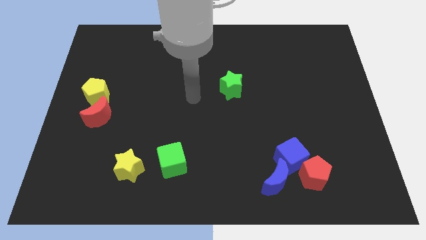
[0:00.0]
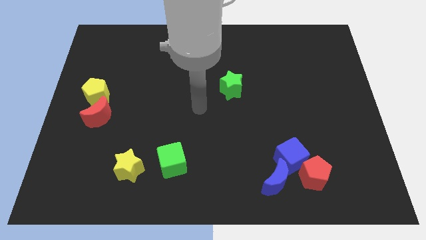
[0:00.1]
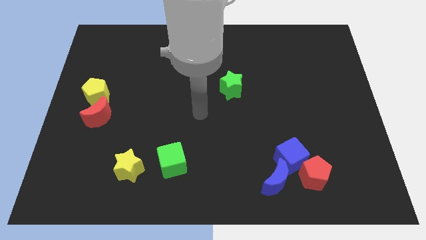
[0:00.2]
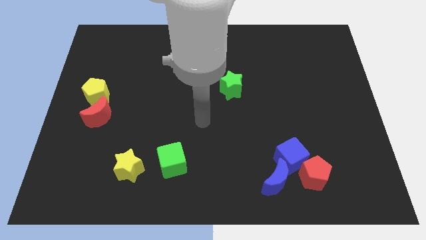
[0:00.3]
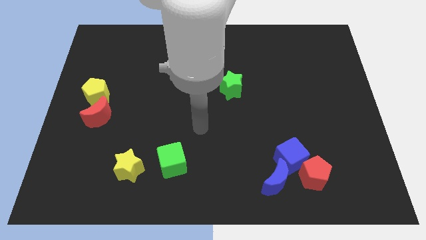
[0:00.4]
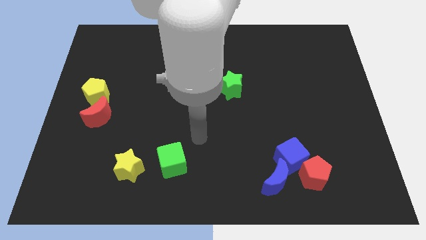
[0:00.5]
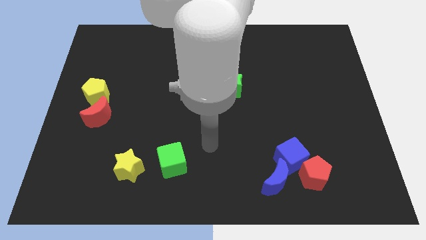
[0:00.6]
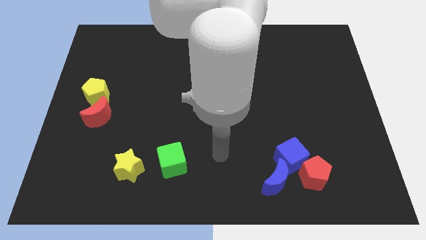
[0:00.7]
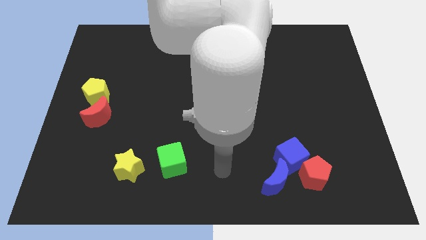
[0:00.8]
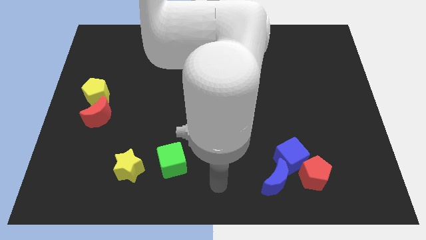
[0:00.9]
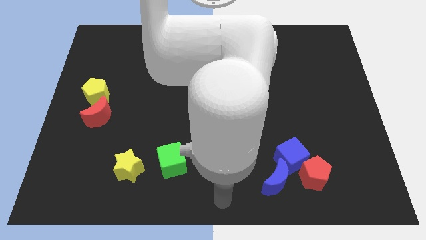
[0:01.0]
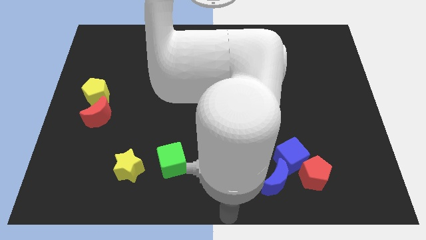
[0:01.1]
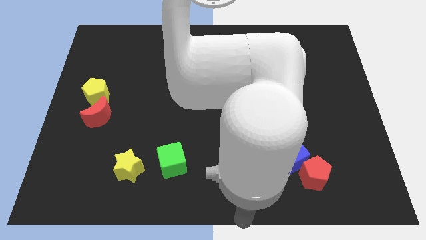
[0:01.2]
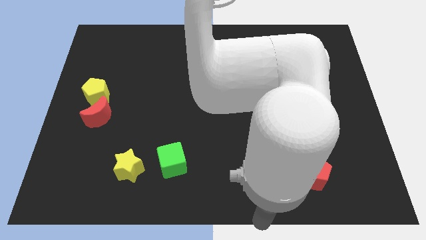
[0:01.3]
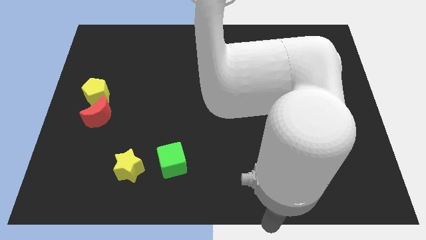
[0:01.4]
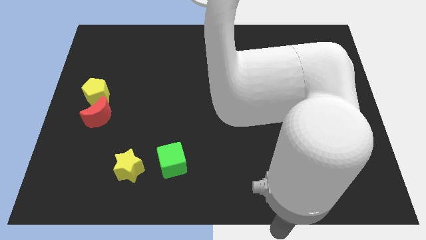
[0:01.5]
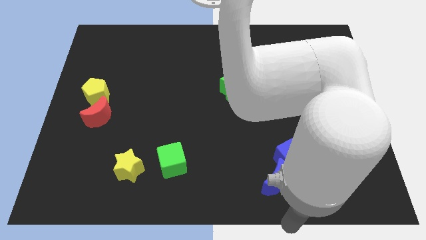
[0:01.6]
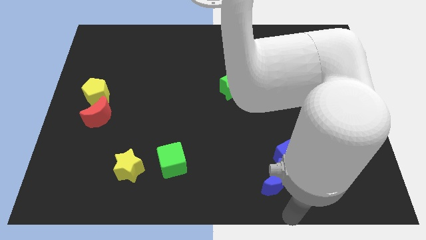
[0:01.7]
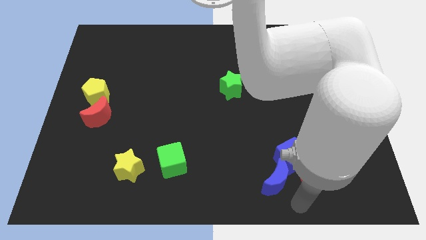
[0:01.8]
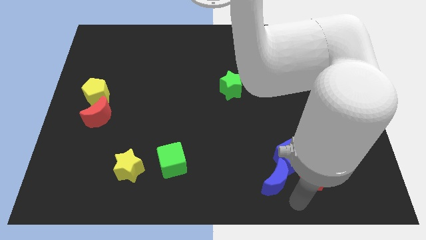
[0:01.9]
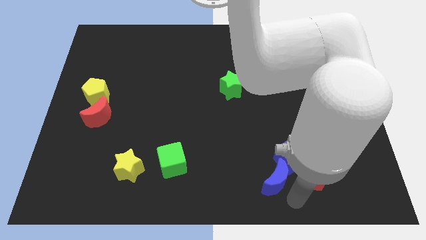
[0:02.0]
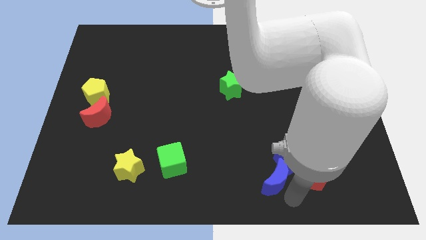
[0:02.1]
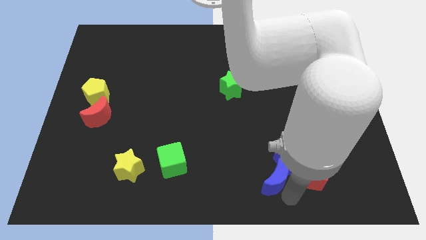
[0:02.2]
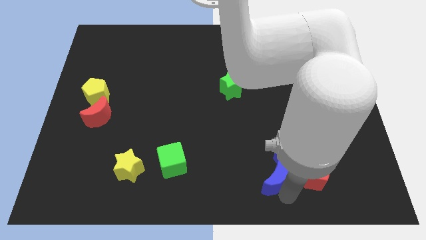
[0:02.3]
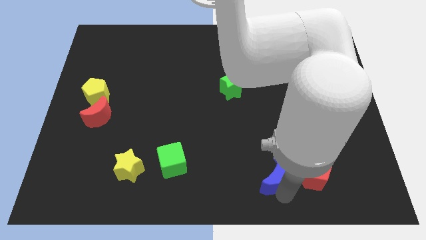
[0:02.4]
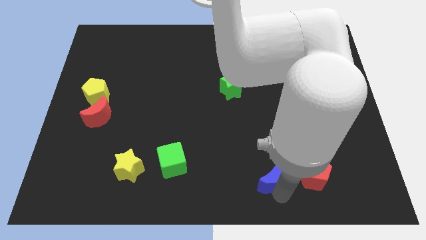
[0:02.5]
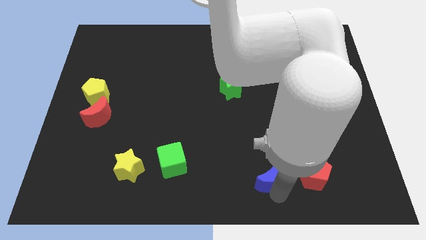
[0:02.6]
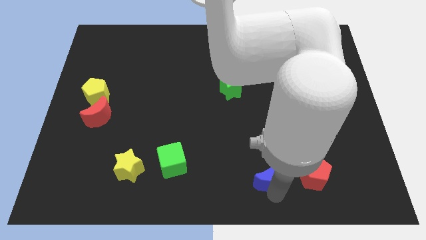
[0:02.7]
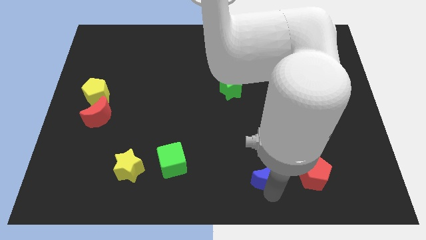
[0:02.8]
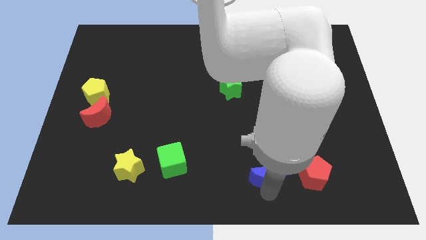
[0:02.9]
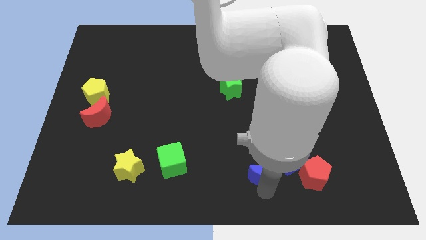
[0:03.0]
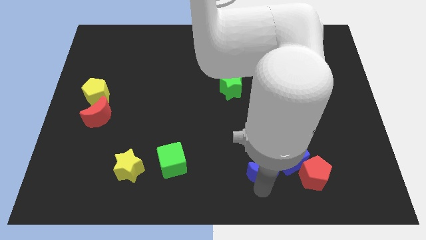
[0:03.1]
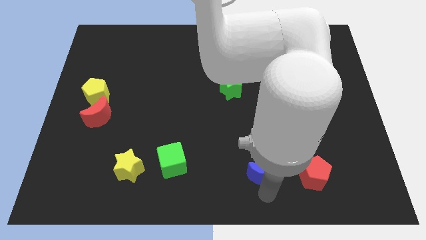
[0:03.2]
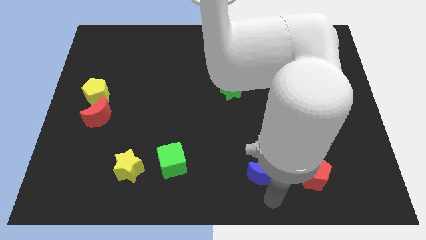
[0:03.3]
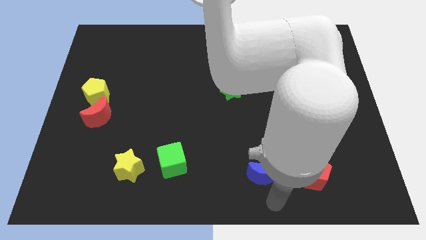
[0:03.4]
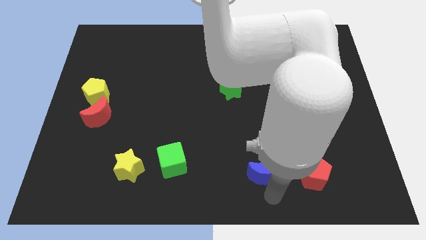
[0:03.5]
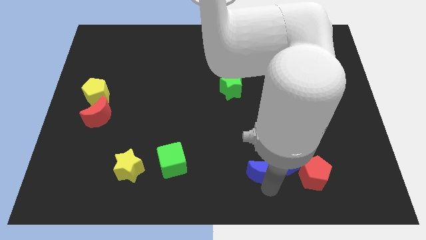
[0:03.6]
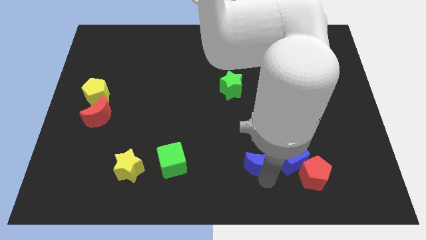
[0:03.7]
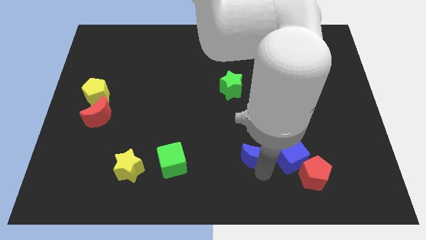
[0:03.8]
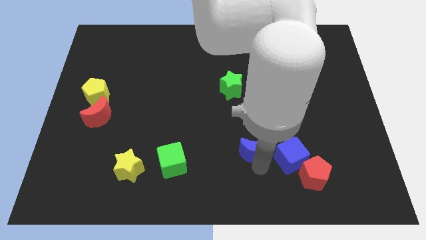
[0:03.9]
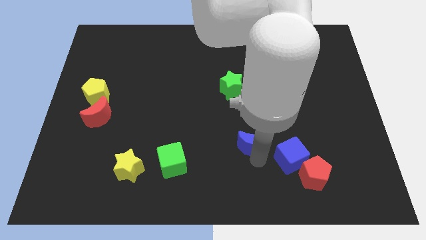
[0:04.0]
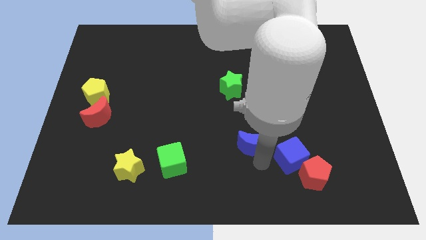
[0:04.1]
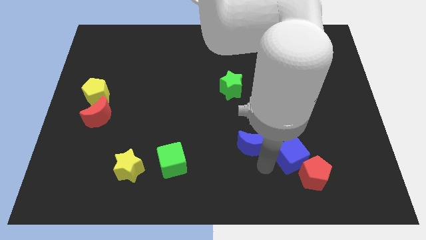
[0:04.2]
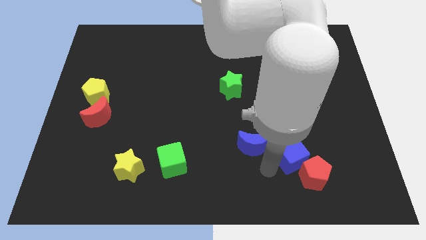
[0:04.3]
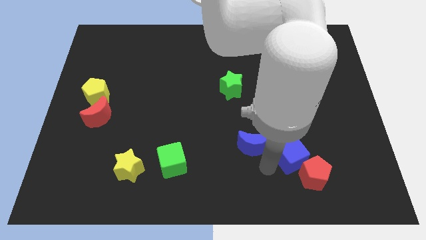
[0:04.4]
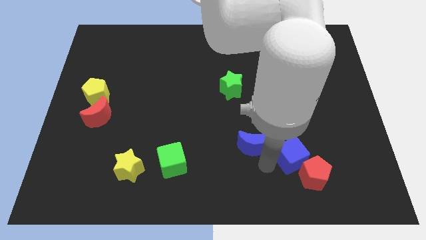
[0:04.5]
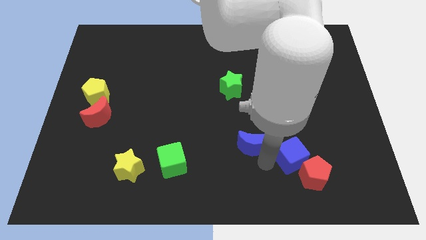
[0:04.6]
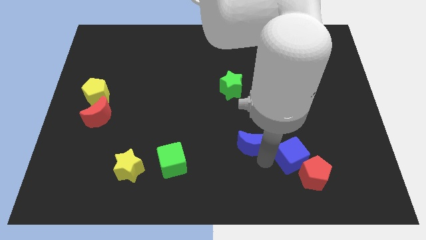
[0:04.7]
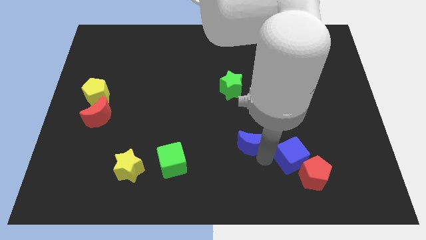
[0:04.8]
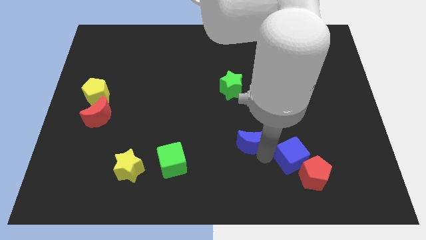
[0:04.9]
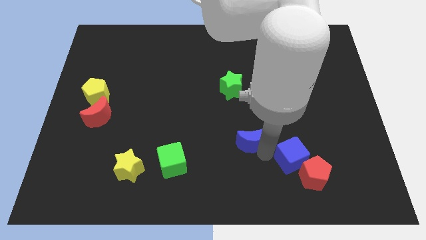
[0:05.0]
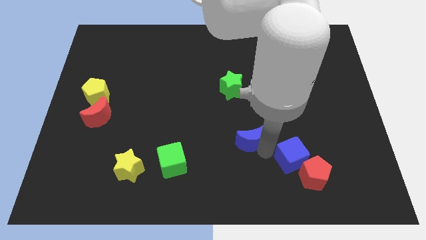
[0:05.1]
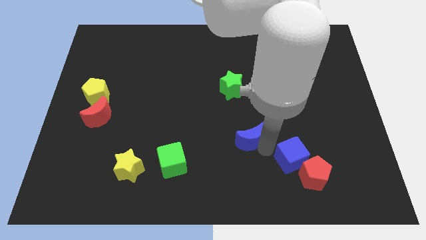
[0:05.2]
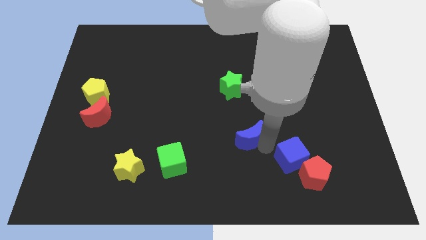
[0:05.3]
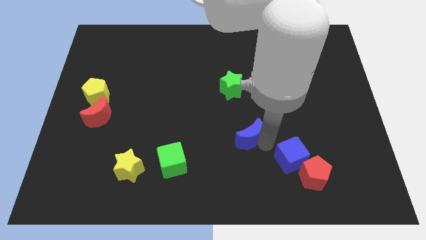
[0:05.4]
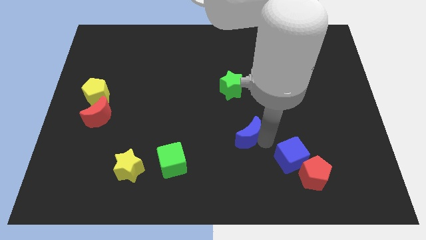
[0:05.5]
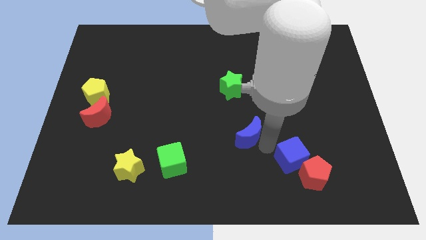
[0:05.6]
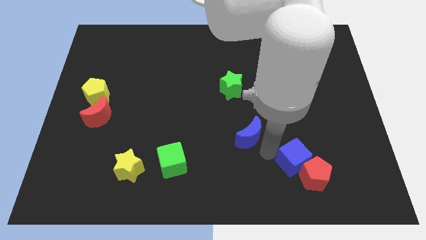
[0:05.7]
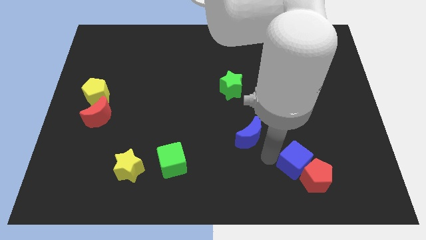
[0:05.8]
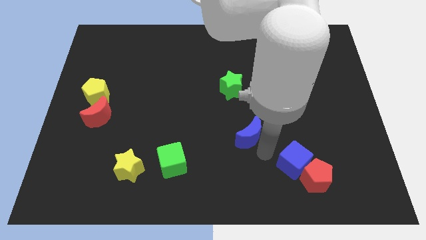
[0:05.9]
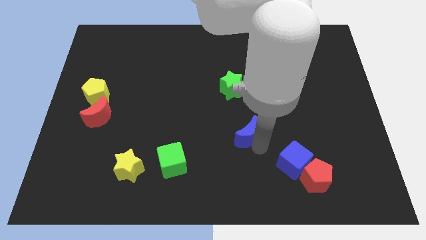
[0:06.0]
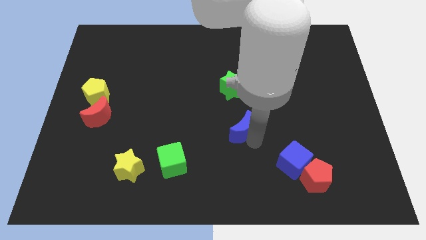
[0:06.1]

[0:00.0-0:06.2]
slide the blue moon to the center
